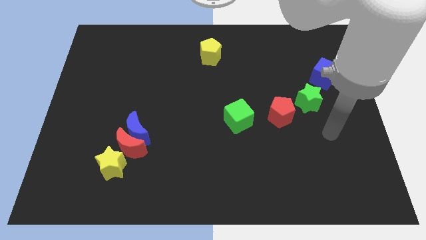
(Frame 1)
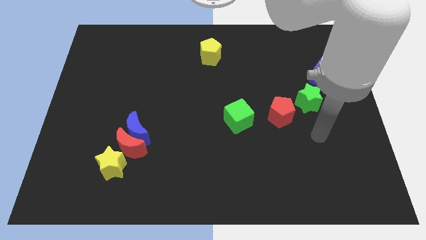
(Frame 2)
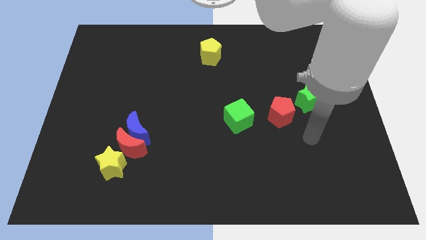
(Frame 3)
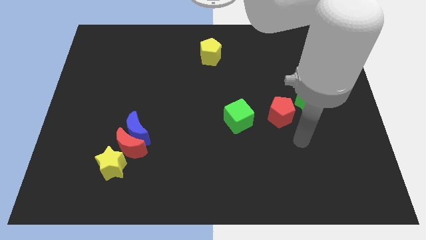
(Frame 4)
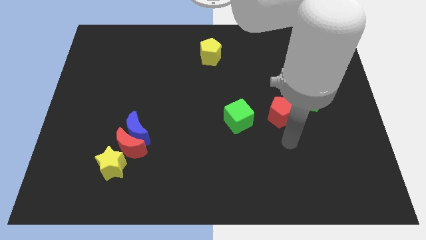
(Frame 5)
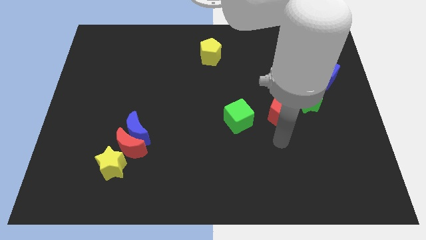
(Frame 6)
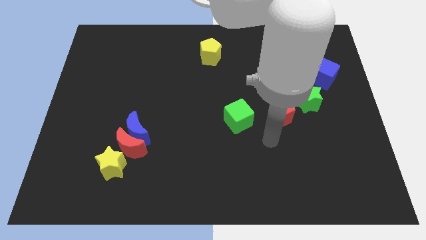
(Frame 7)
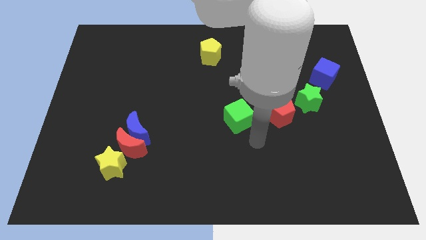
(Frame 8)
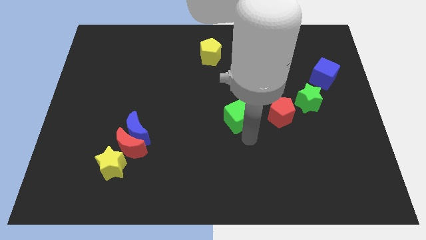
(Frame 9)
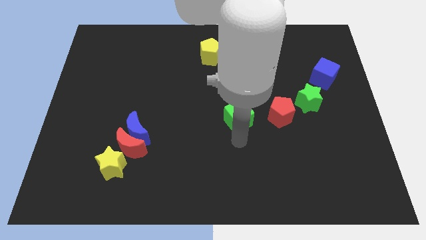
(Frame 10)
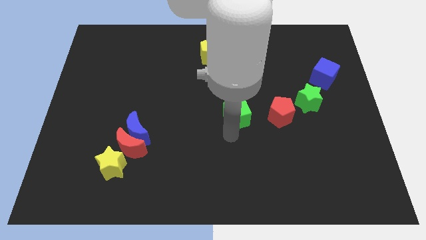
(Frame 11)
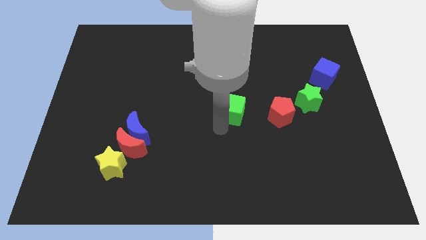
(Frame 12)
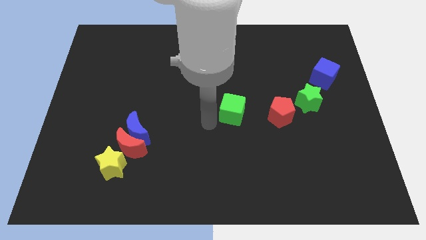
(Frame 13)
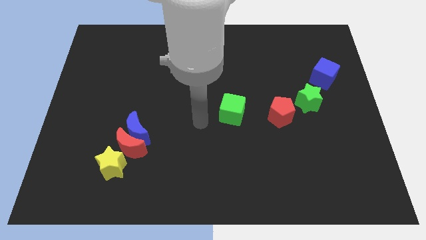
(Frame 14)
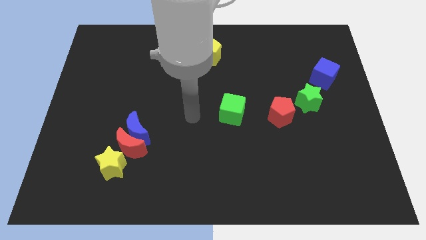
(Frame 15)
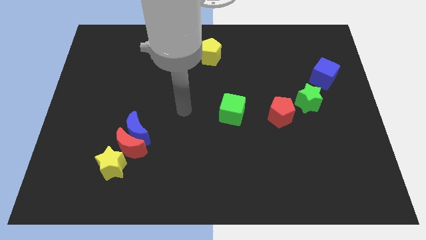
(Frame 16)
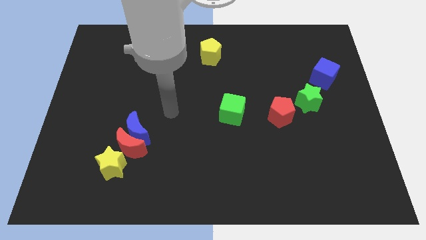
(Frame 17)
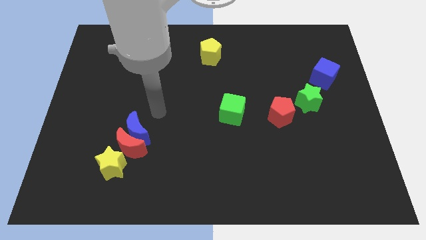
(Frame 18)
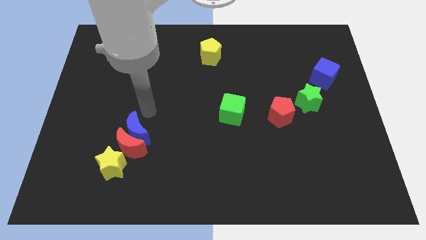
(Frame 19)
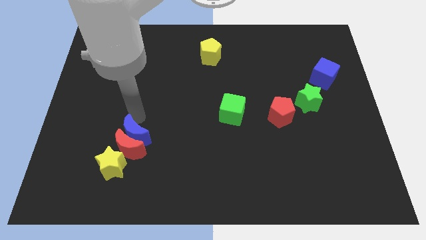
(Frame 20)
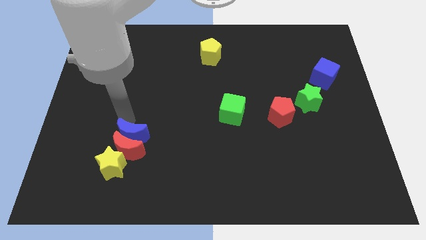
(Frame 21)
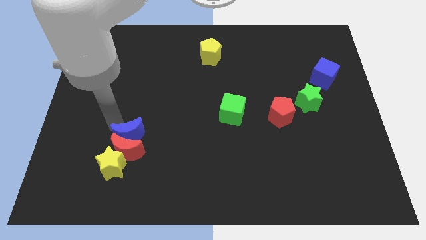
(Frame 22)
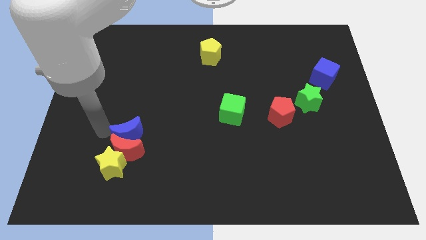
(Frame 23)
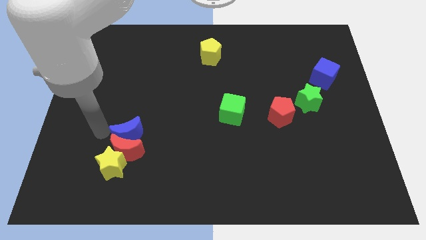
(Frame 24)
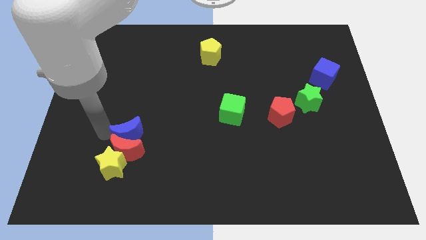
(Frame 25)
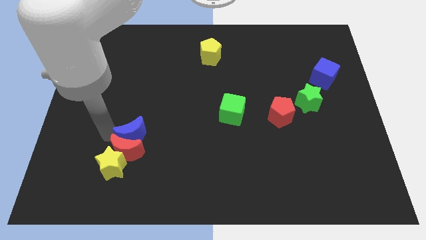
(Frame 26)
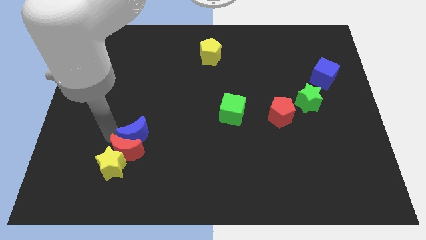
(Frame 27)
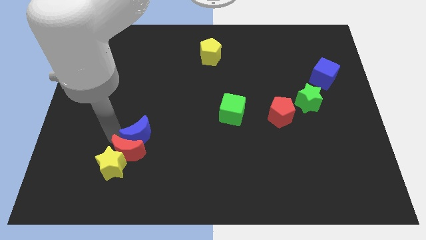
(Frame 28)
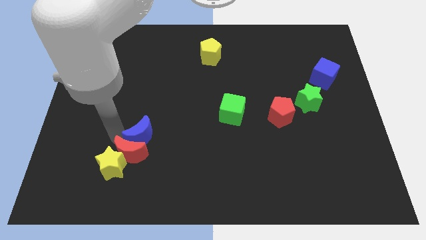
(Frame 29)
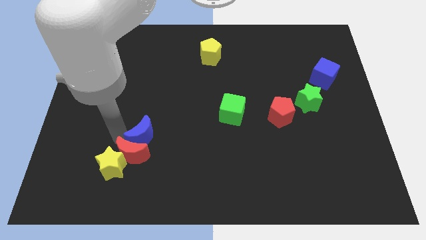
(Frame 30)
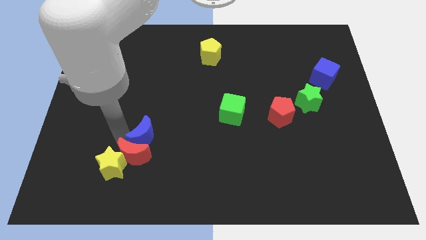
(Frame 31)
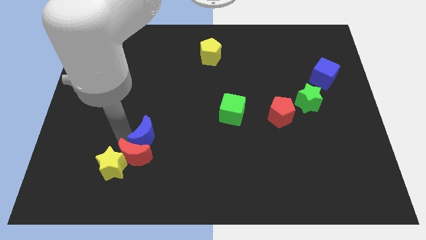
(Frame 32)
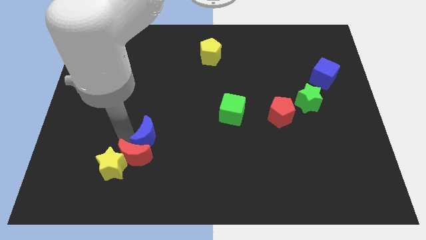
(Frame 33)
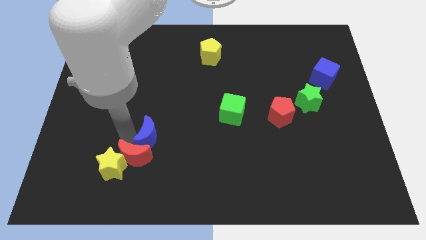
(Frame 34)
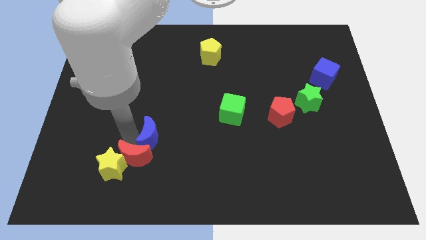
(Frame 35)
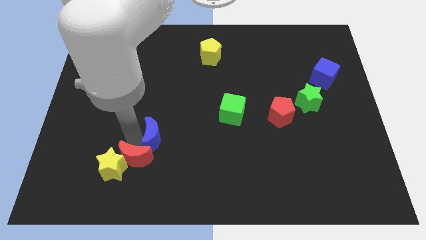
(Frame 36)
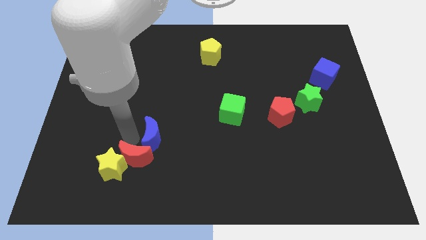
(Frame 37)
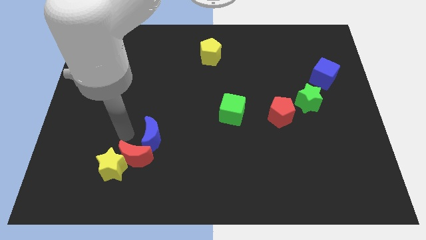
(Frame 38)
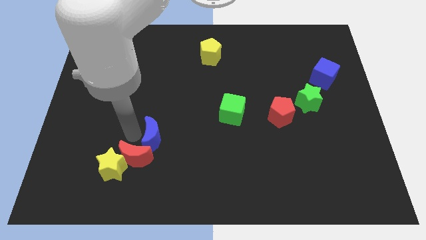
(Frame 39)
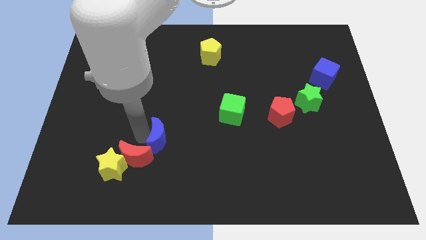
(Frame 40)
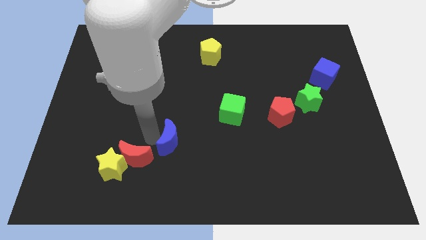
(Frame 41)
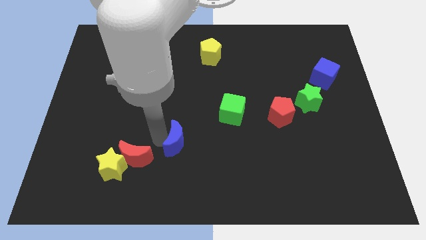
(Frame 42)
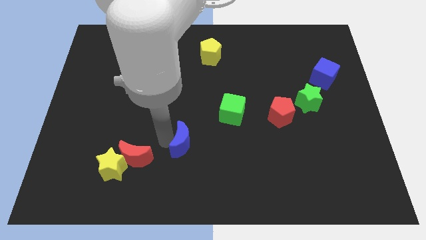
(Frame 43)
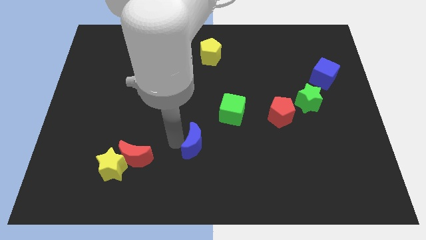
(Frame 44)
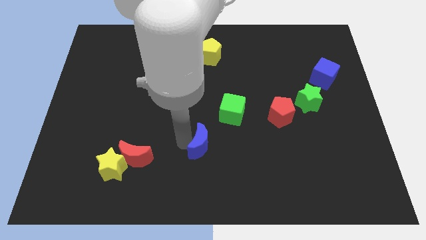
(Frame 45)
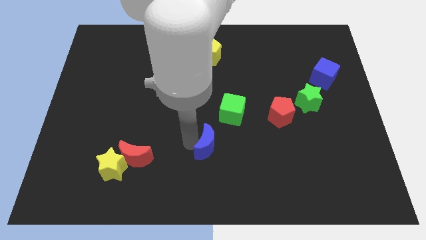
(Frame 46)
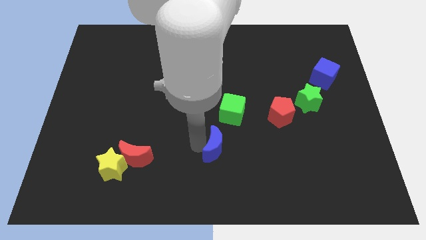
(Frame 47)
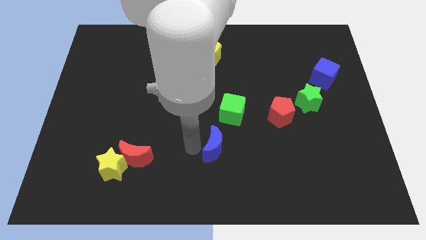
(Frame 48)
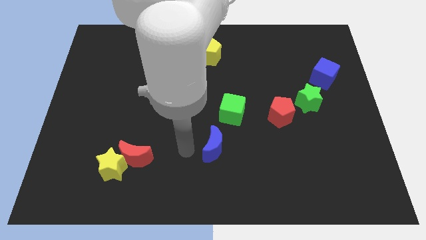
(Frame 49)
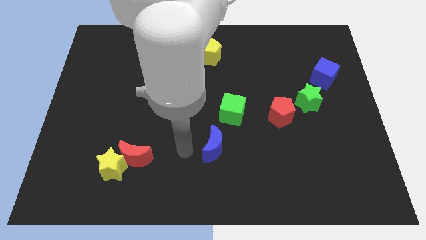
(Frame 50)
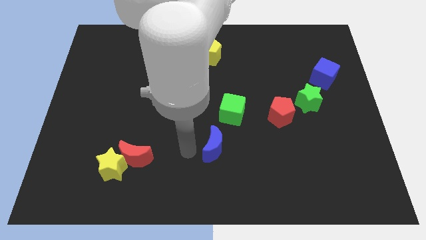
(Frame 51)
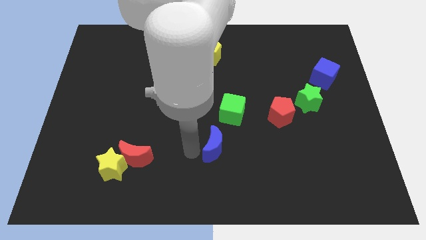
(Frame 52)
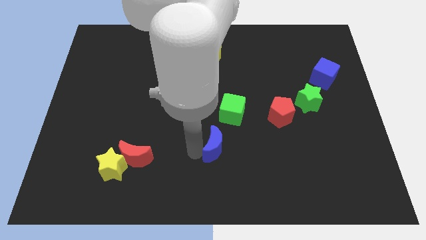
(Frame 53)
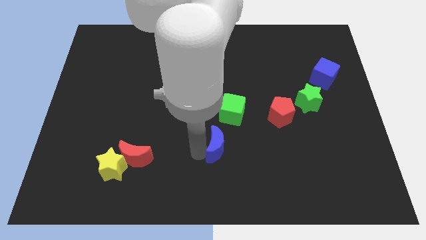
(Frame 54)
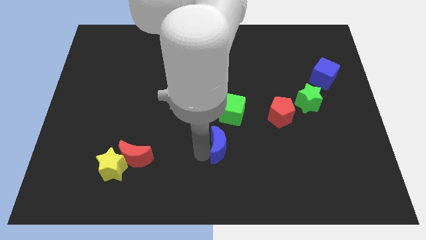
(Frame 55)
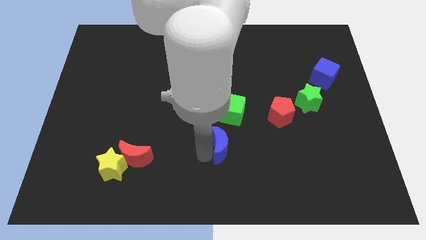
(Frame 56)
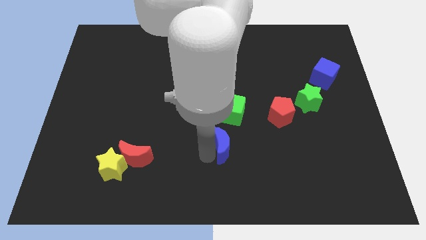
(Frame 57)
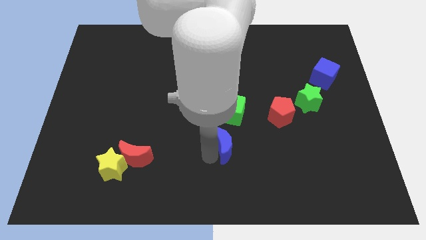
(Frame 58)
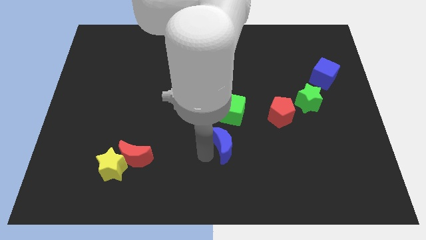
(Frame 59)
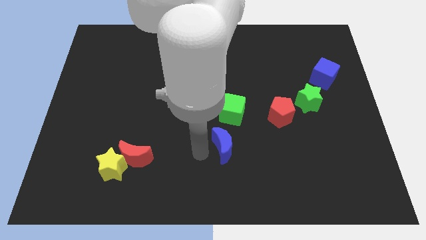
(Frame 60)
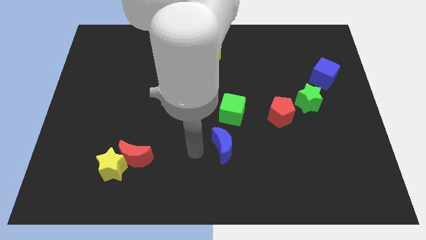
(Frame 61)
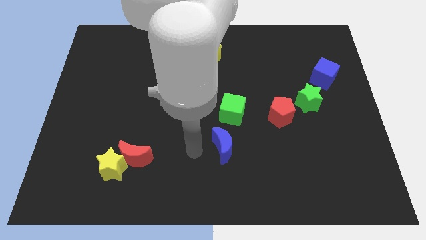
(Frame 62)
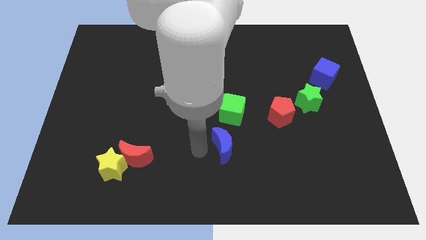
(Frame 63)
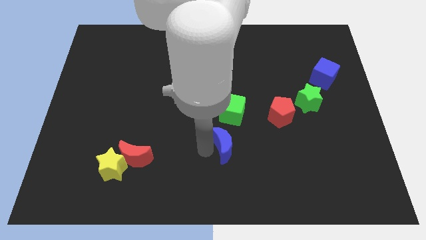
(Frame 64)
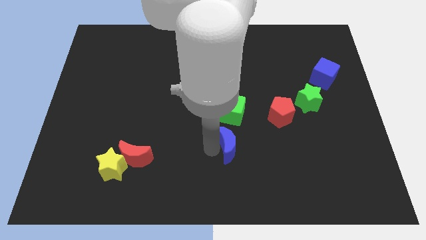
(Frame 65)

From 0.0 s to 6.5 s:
push the blue moon to the right

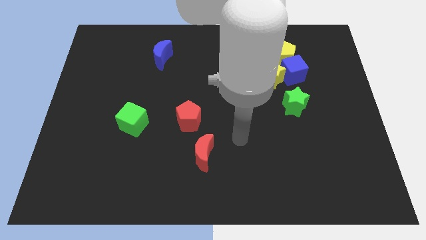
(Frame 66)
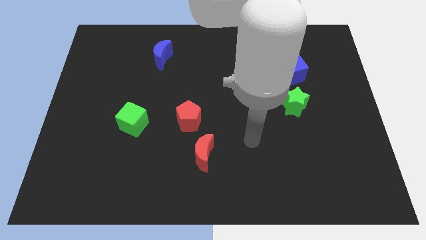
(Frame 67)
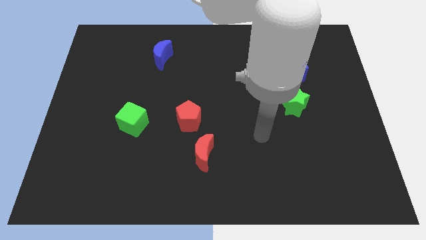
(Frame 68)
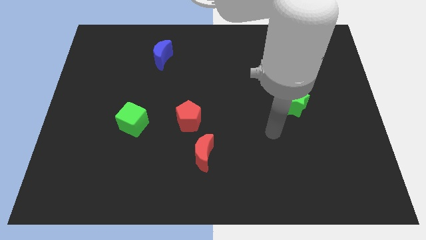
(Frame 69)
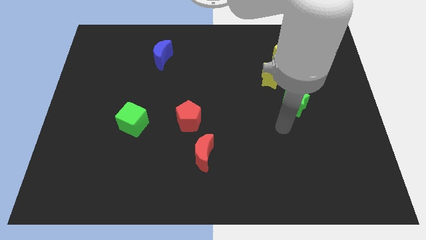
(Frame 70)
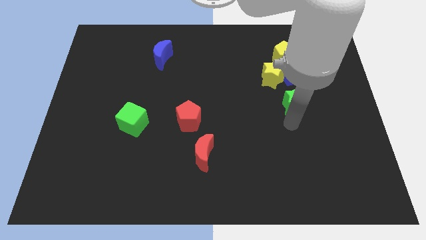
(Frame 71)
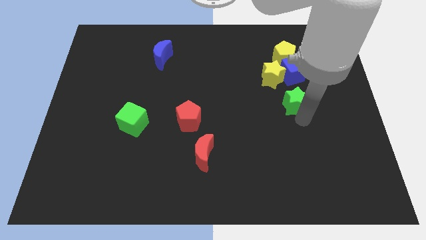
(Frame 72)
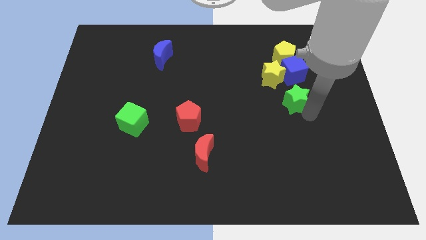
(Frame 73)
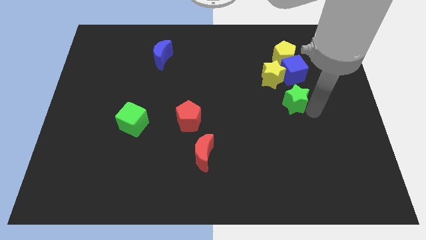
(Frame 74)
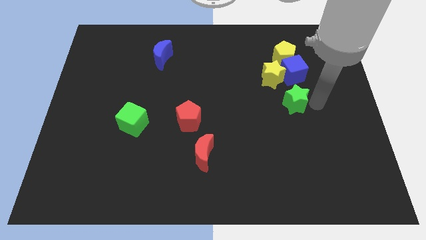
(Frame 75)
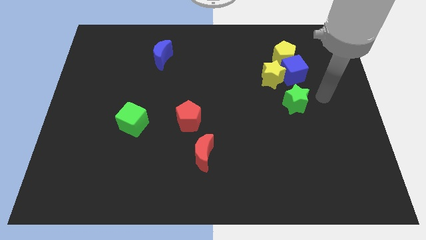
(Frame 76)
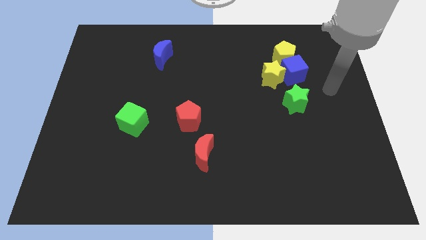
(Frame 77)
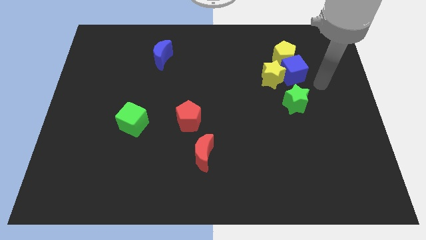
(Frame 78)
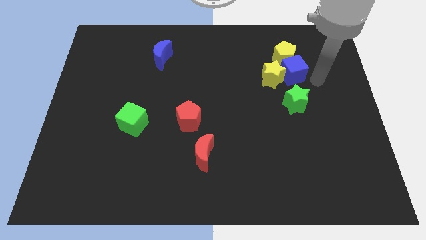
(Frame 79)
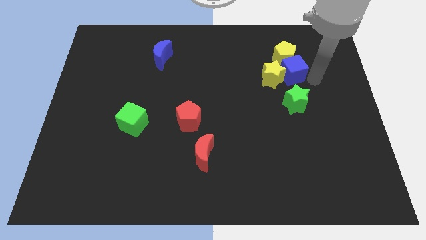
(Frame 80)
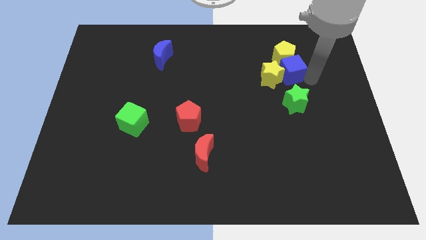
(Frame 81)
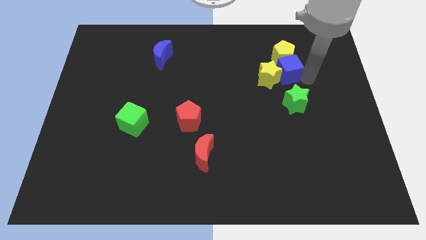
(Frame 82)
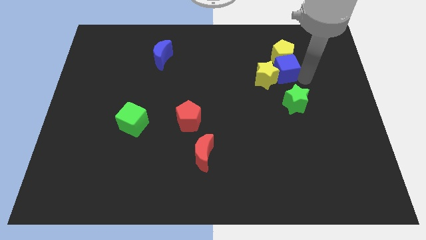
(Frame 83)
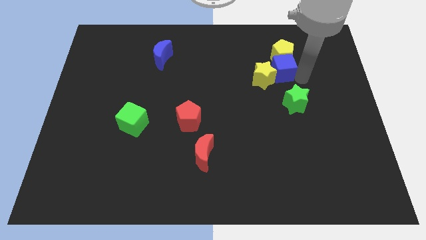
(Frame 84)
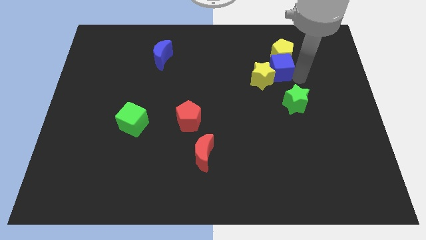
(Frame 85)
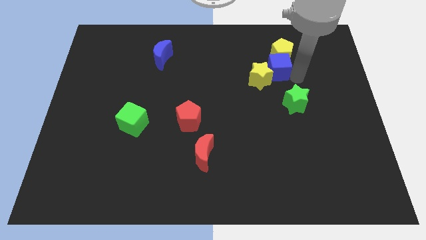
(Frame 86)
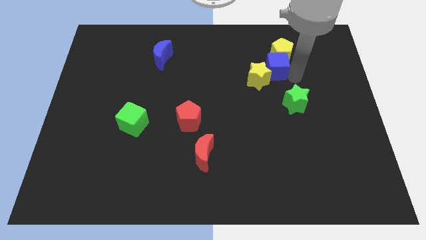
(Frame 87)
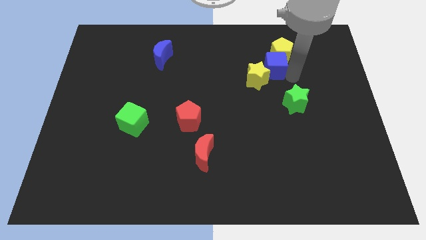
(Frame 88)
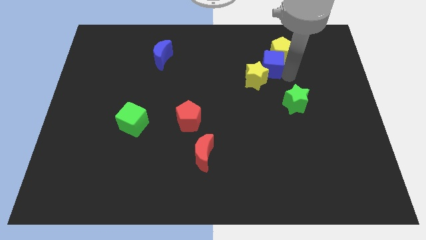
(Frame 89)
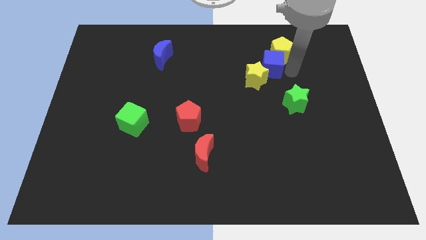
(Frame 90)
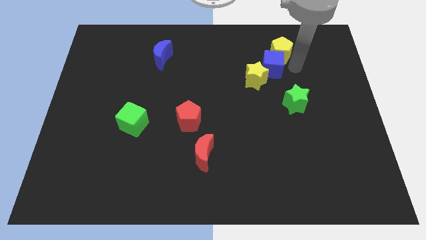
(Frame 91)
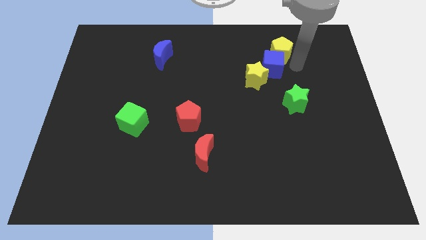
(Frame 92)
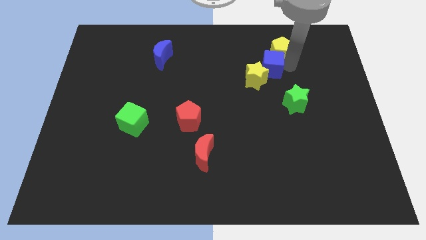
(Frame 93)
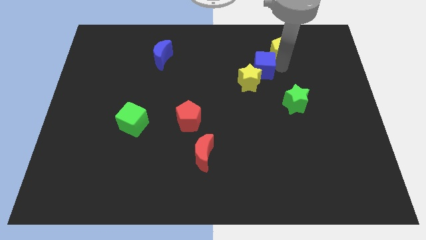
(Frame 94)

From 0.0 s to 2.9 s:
slide the blue cube left a little
